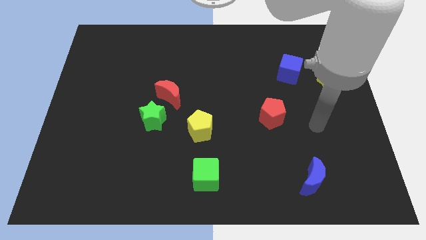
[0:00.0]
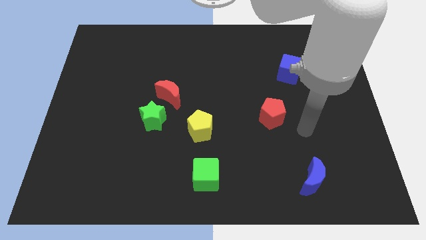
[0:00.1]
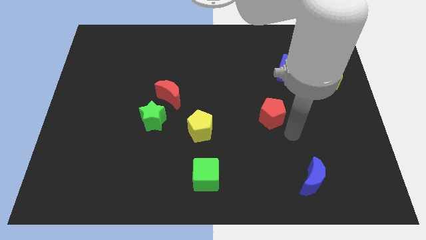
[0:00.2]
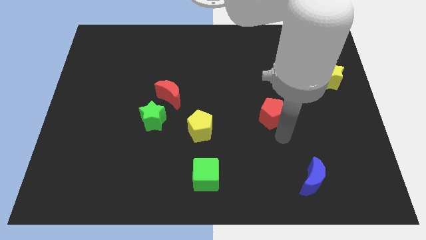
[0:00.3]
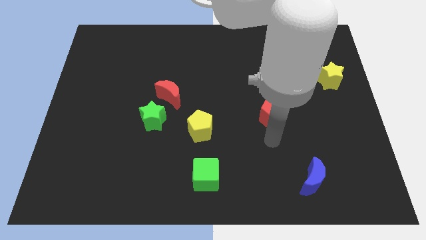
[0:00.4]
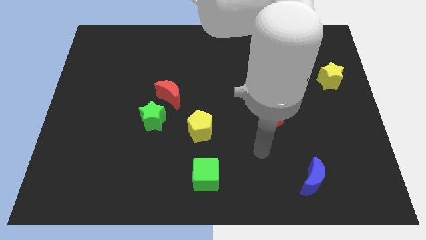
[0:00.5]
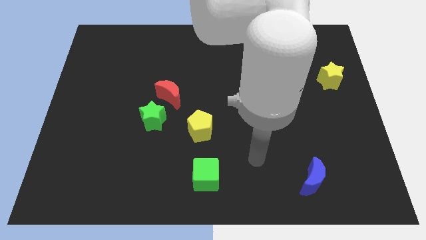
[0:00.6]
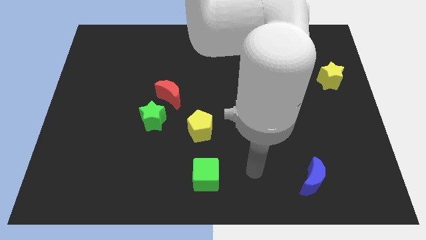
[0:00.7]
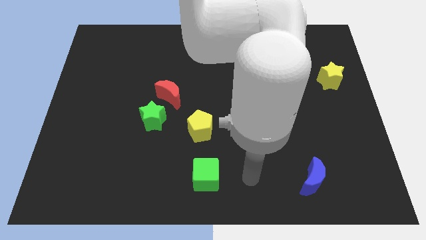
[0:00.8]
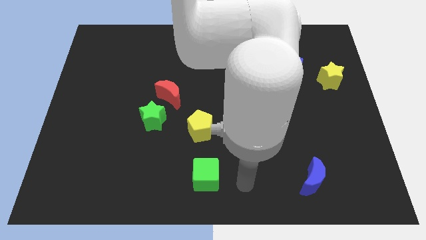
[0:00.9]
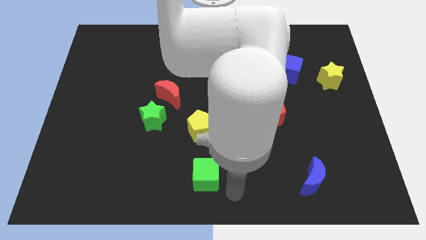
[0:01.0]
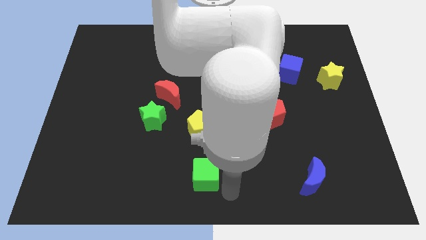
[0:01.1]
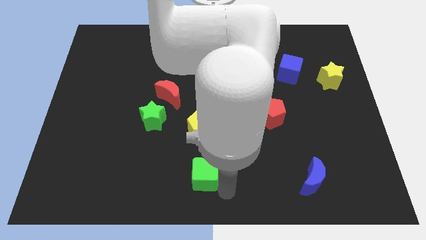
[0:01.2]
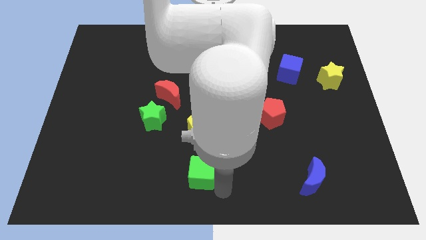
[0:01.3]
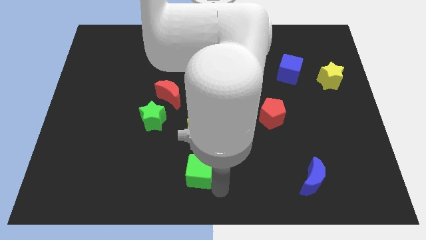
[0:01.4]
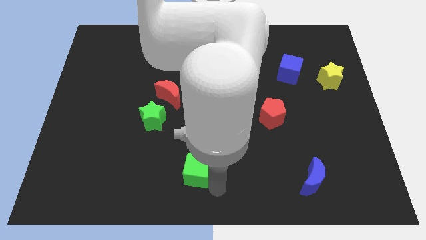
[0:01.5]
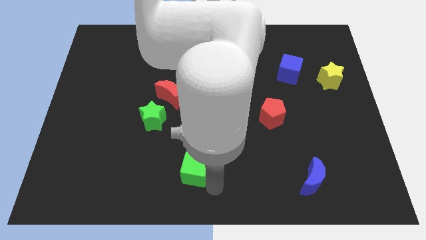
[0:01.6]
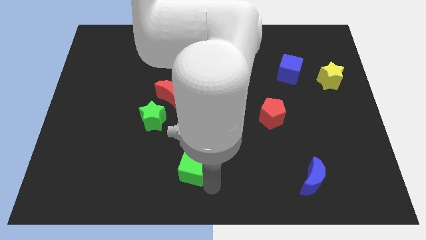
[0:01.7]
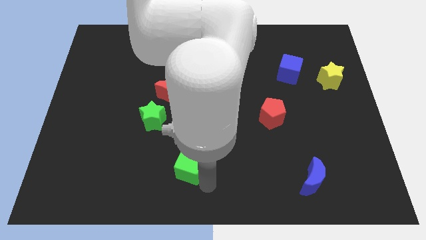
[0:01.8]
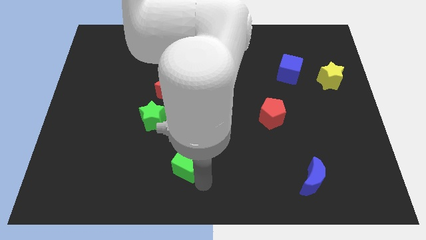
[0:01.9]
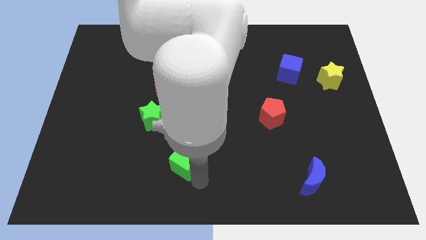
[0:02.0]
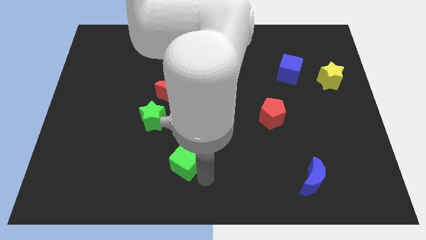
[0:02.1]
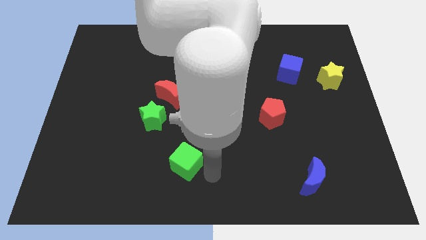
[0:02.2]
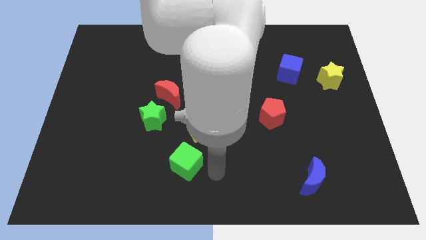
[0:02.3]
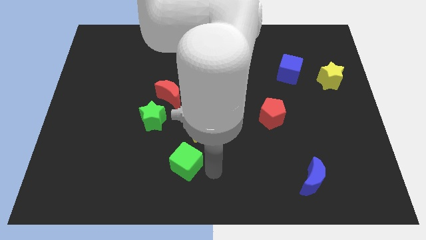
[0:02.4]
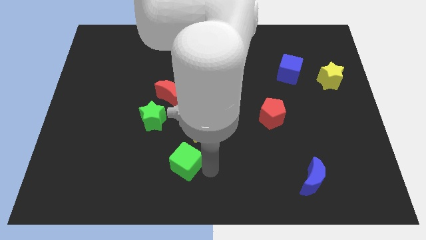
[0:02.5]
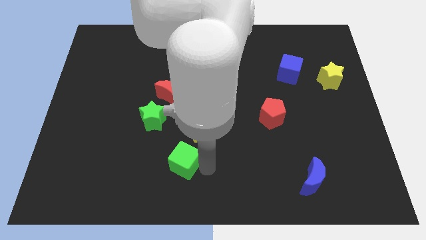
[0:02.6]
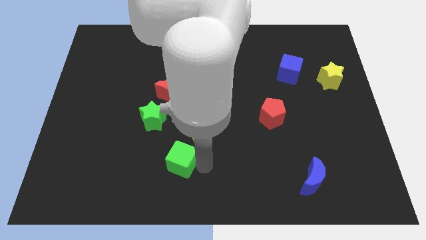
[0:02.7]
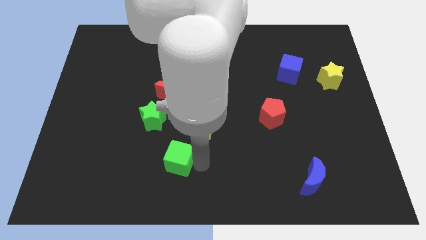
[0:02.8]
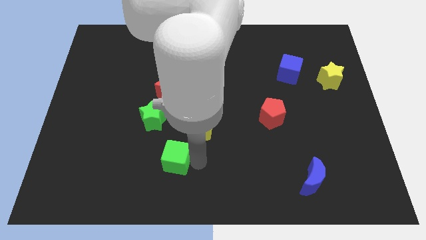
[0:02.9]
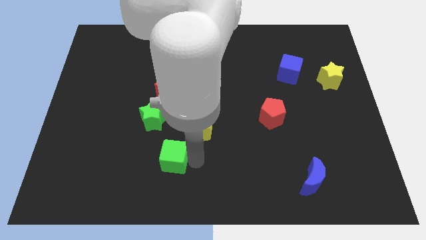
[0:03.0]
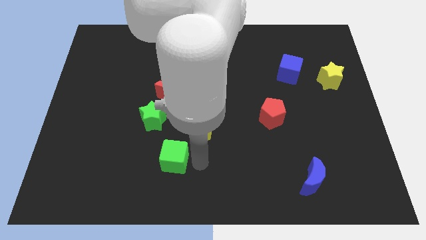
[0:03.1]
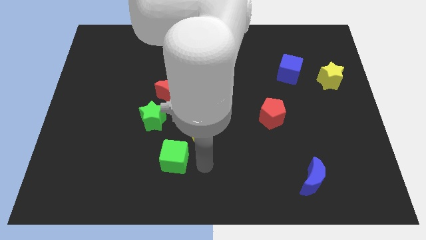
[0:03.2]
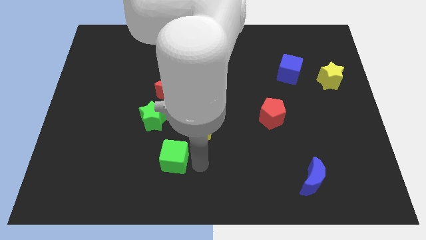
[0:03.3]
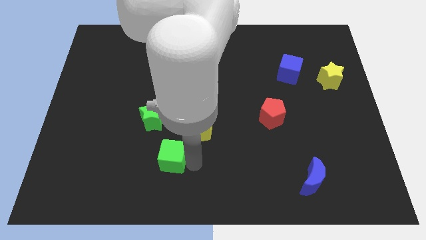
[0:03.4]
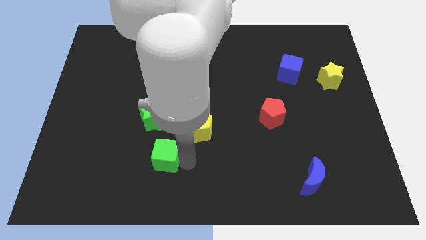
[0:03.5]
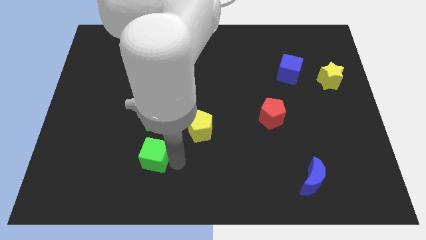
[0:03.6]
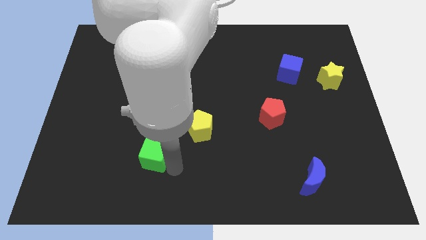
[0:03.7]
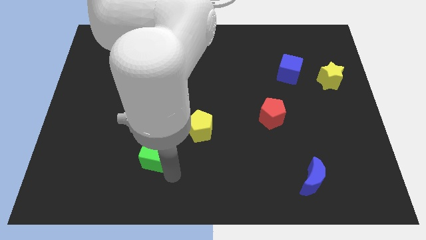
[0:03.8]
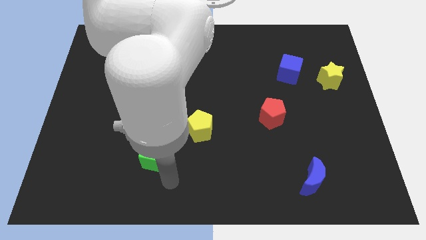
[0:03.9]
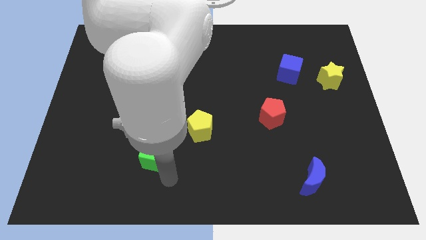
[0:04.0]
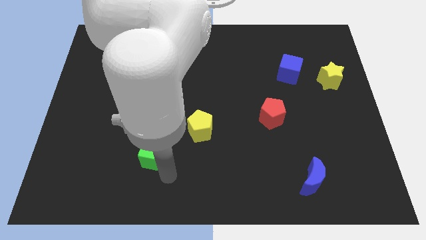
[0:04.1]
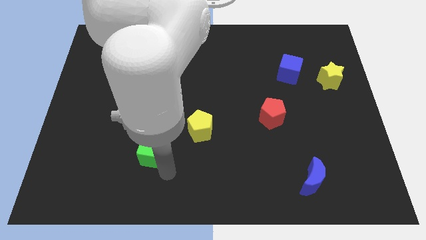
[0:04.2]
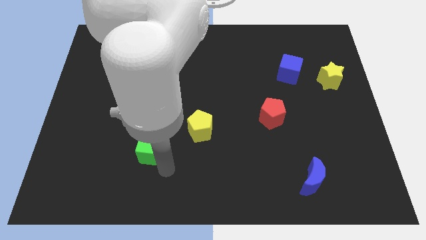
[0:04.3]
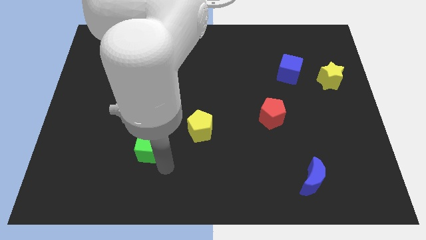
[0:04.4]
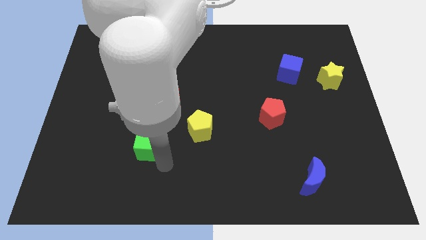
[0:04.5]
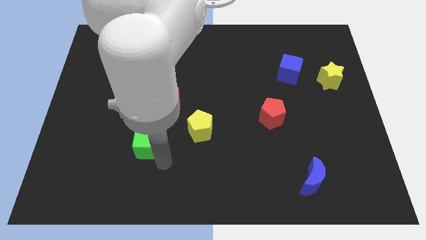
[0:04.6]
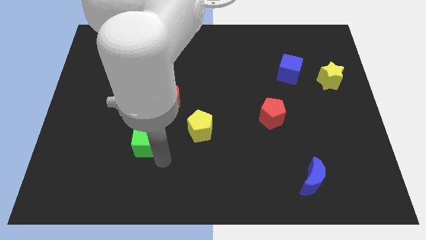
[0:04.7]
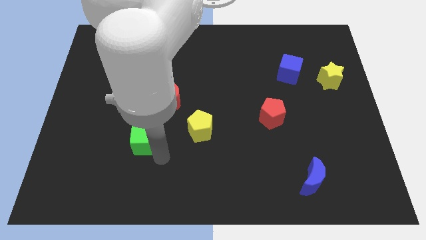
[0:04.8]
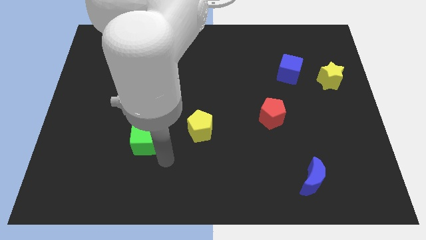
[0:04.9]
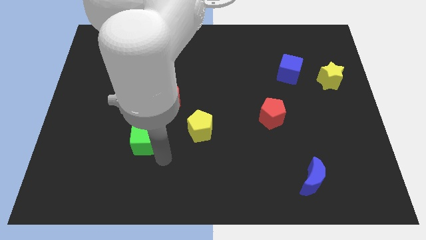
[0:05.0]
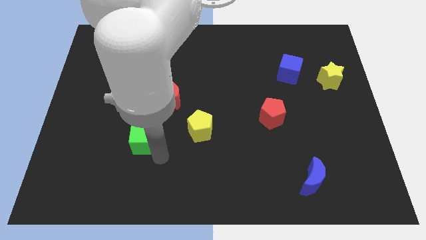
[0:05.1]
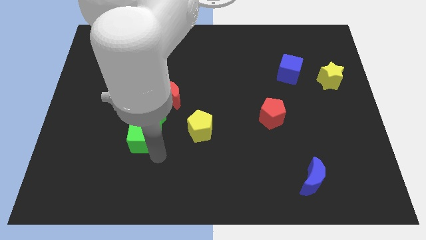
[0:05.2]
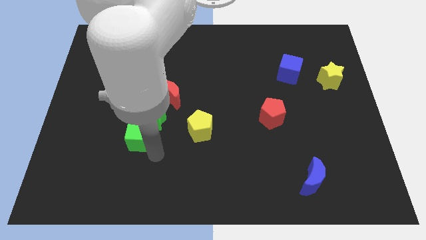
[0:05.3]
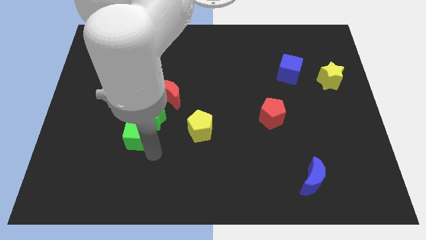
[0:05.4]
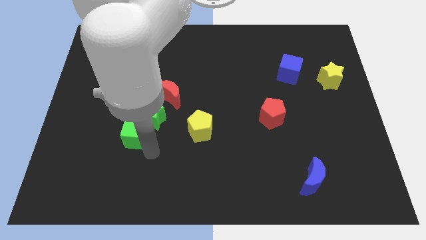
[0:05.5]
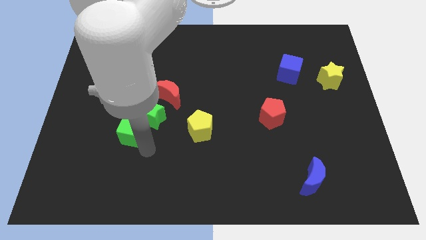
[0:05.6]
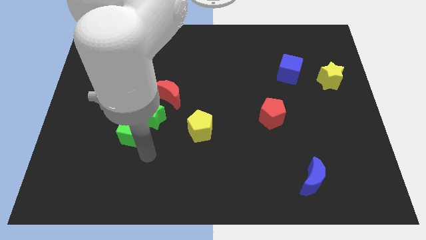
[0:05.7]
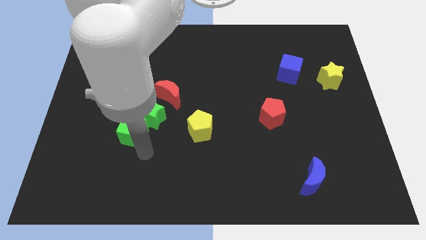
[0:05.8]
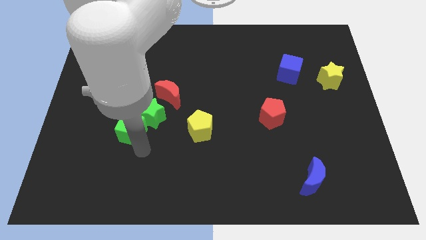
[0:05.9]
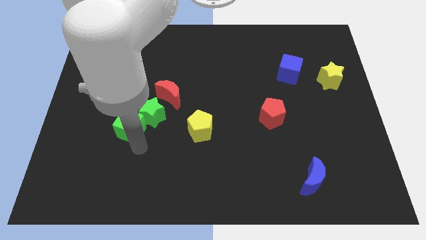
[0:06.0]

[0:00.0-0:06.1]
push the green cube up and then left

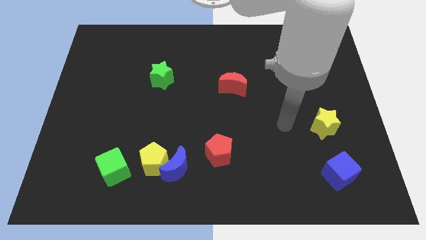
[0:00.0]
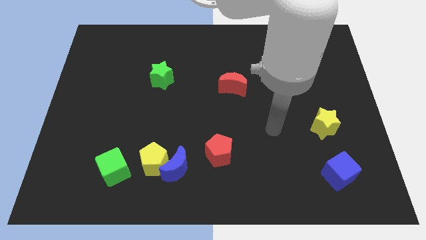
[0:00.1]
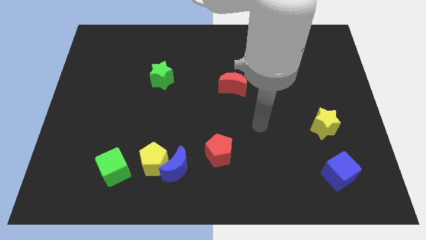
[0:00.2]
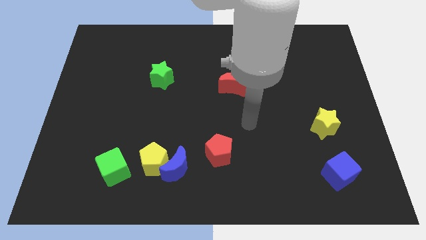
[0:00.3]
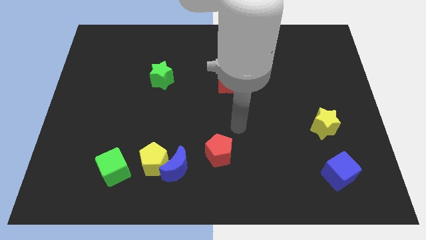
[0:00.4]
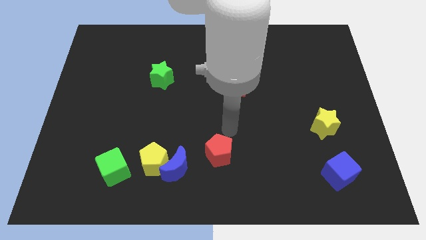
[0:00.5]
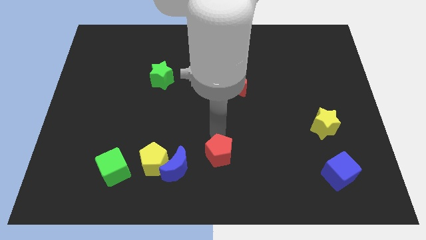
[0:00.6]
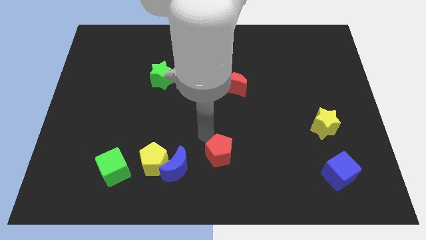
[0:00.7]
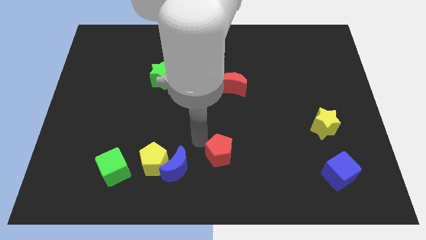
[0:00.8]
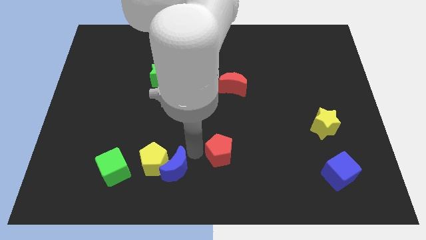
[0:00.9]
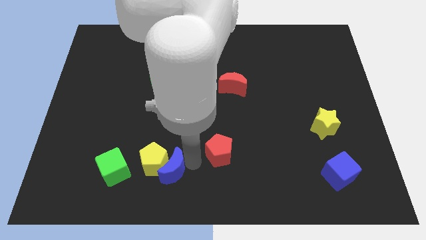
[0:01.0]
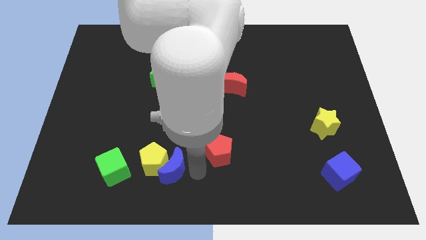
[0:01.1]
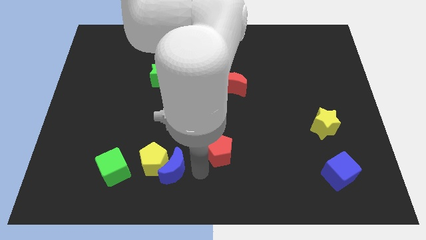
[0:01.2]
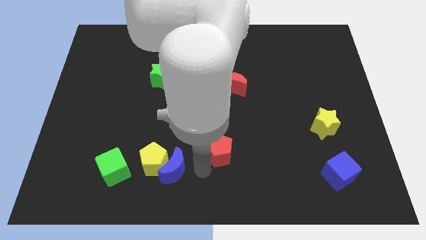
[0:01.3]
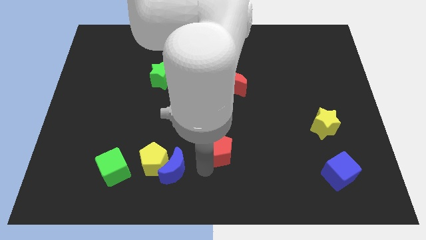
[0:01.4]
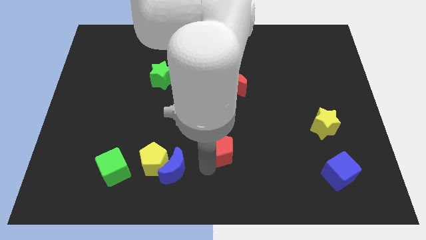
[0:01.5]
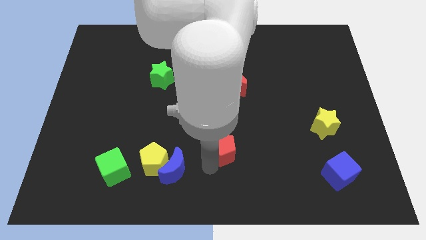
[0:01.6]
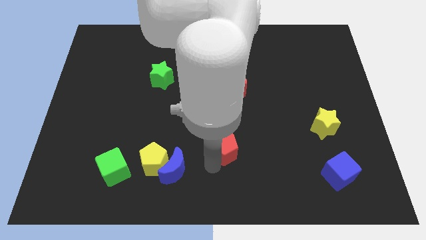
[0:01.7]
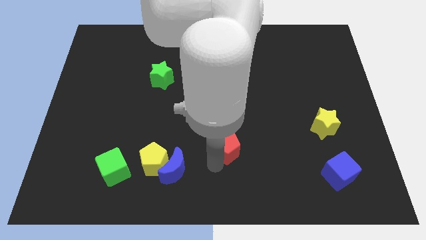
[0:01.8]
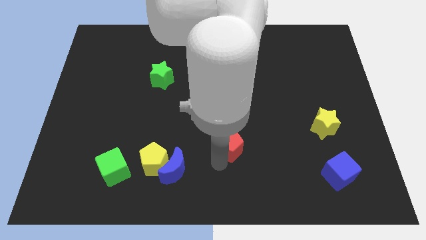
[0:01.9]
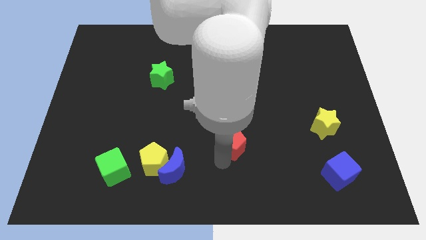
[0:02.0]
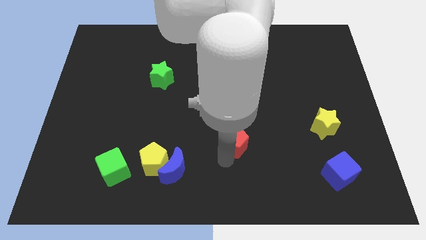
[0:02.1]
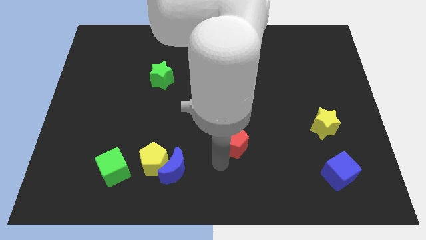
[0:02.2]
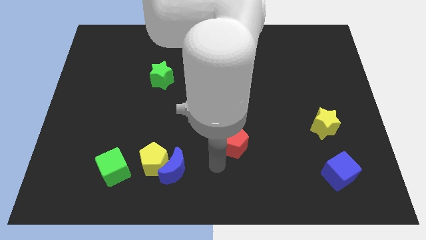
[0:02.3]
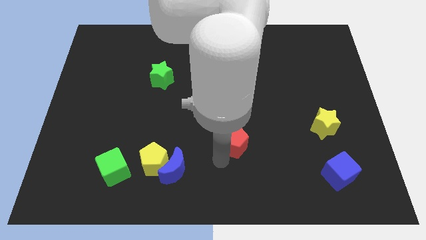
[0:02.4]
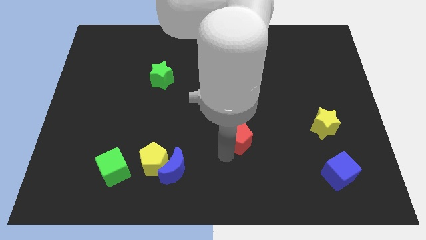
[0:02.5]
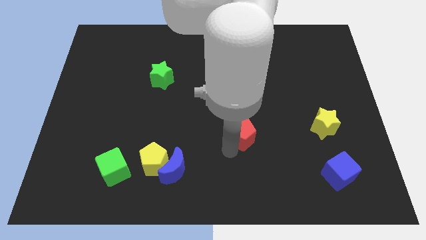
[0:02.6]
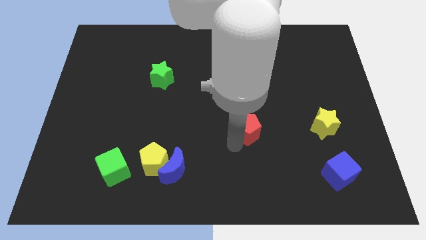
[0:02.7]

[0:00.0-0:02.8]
slide the red pentagon up and to the right diagonally a little bit
